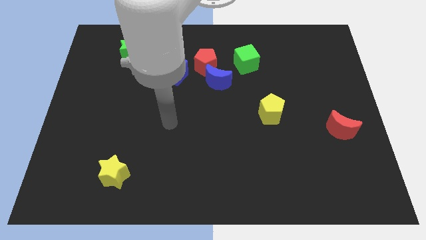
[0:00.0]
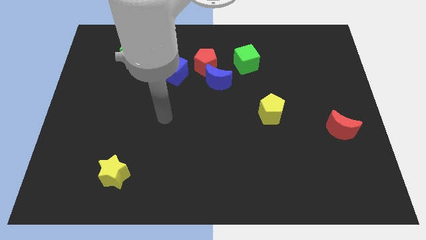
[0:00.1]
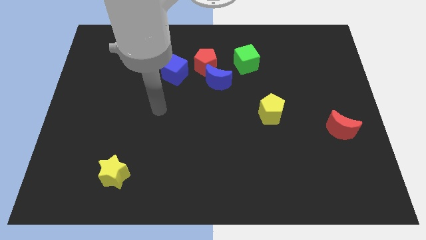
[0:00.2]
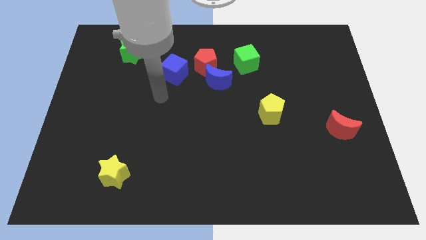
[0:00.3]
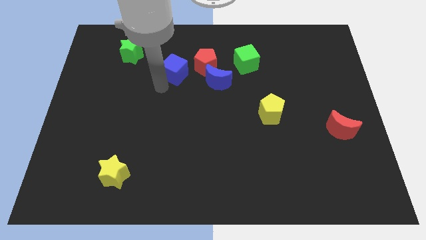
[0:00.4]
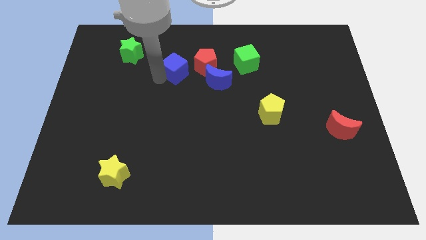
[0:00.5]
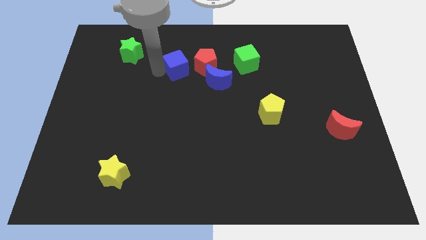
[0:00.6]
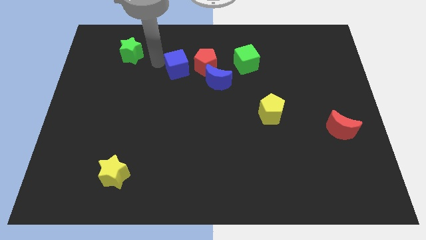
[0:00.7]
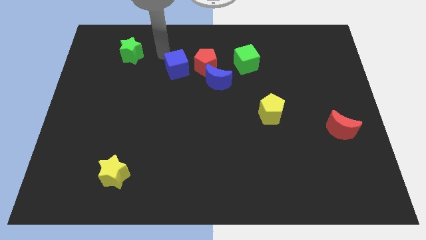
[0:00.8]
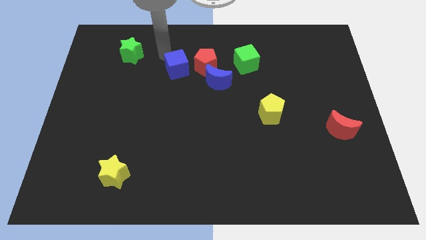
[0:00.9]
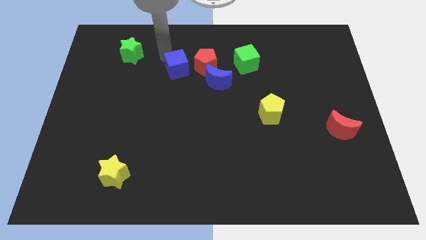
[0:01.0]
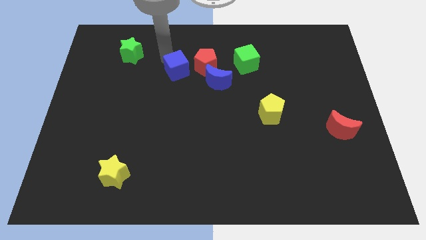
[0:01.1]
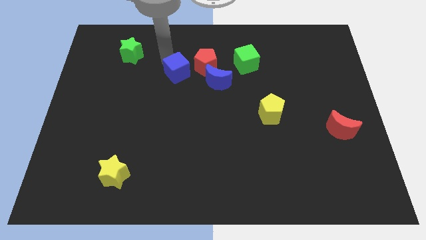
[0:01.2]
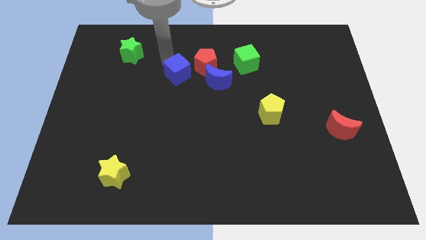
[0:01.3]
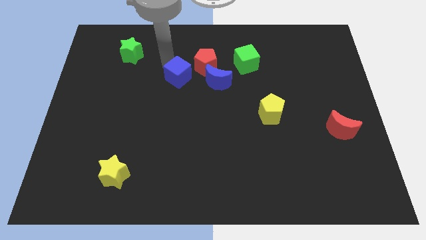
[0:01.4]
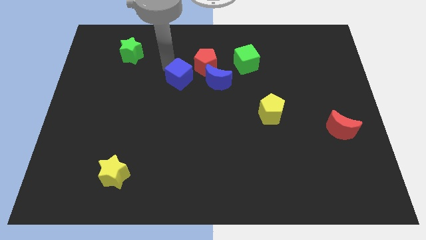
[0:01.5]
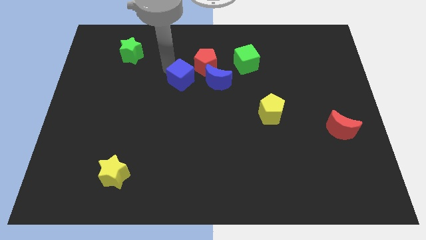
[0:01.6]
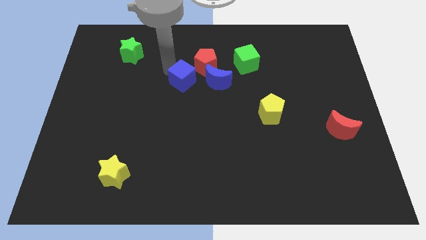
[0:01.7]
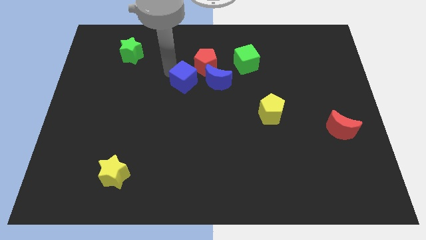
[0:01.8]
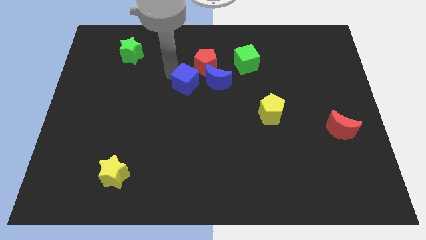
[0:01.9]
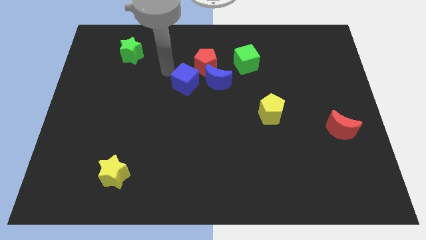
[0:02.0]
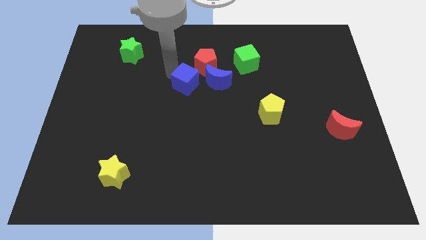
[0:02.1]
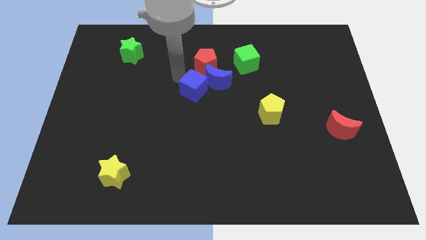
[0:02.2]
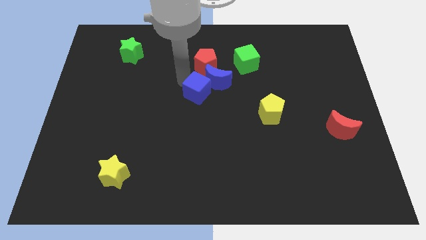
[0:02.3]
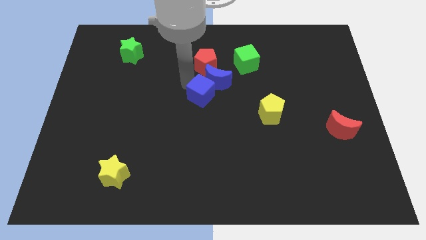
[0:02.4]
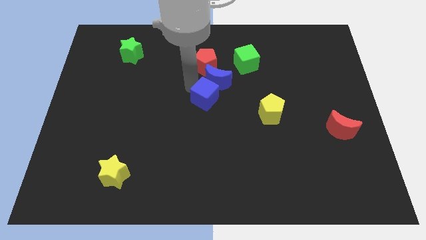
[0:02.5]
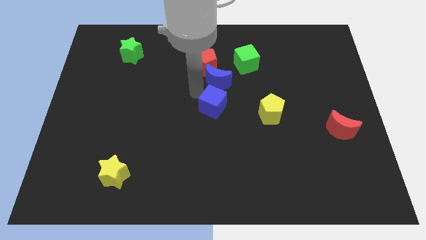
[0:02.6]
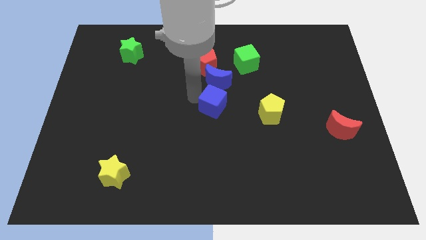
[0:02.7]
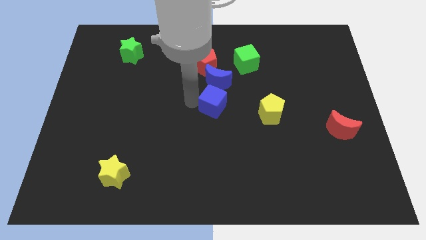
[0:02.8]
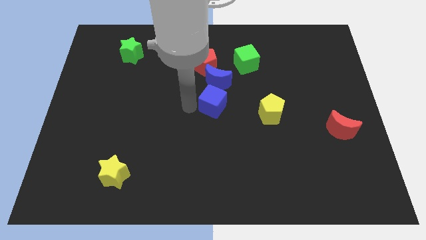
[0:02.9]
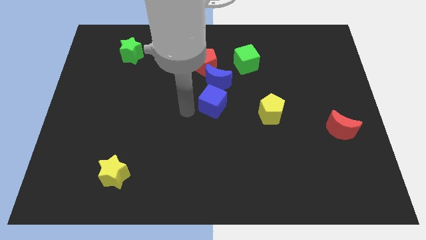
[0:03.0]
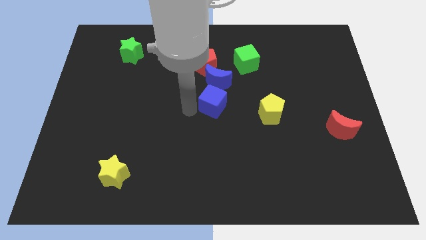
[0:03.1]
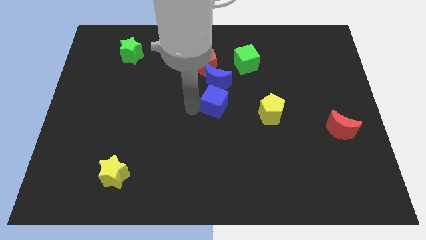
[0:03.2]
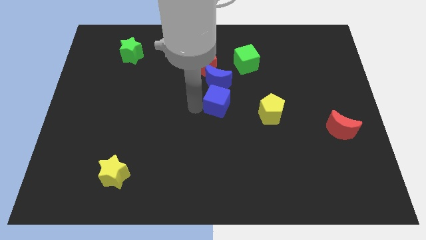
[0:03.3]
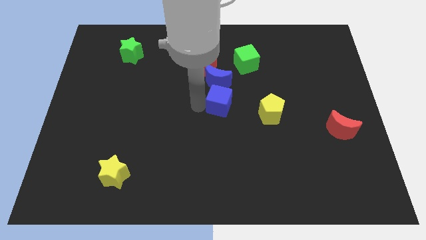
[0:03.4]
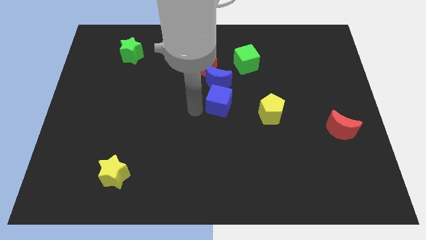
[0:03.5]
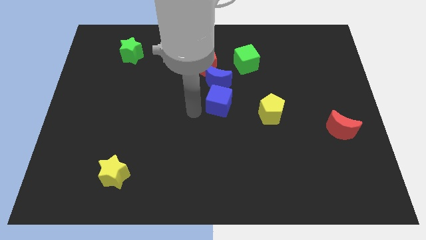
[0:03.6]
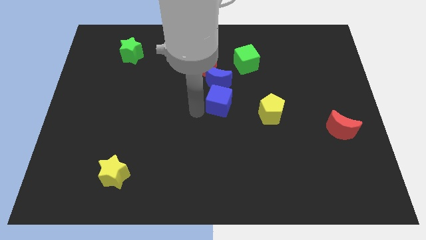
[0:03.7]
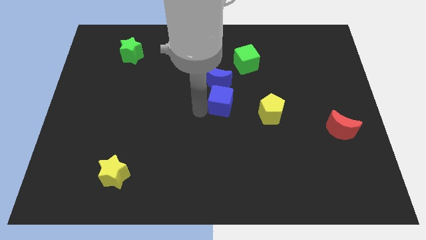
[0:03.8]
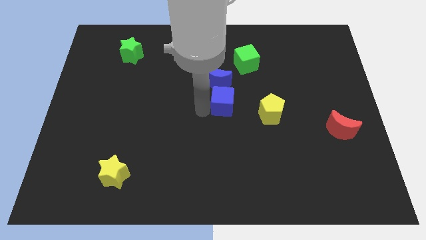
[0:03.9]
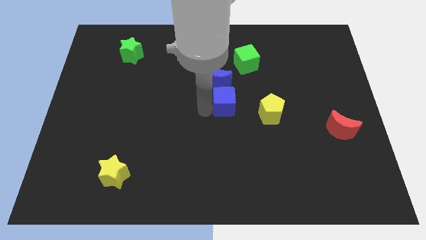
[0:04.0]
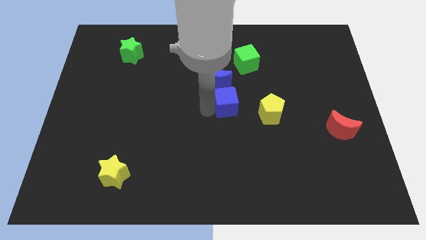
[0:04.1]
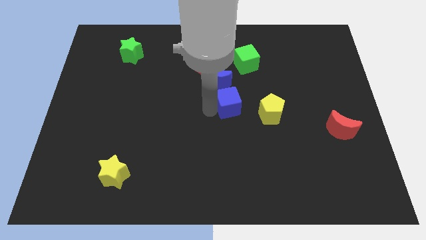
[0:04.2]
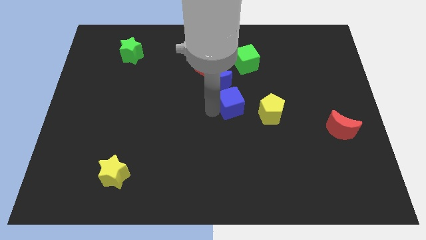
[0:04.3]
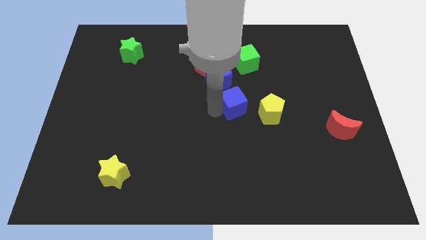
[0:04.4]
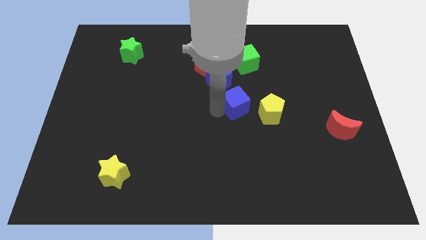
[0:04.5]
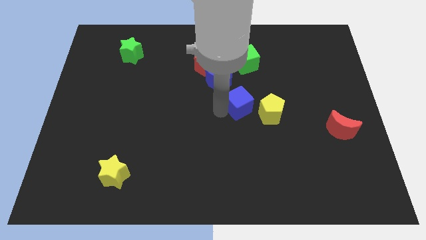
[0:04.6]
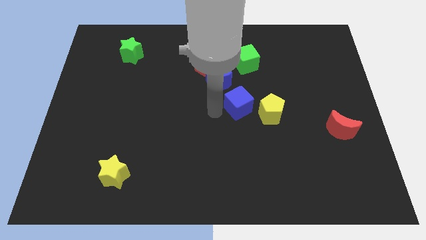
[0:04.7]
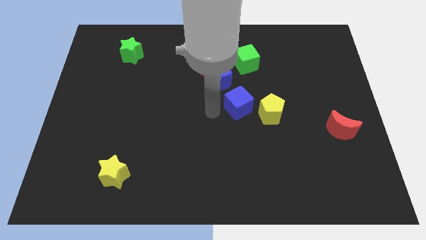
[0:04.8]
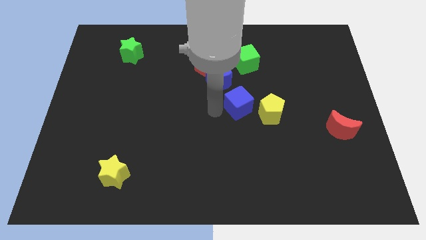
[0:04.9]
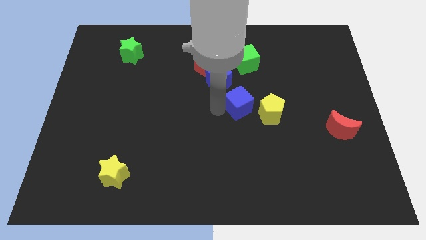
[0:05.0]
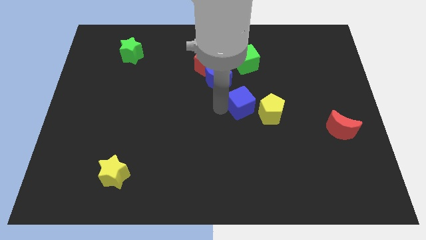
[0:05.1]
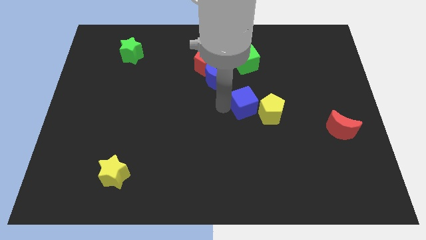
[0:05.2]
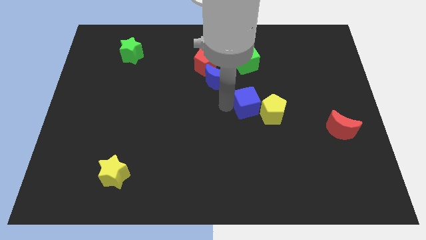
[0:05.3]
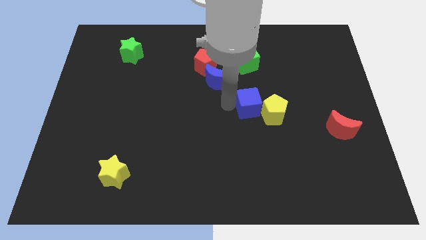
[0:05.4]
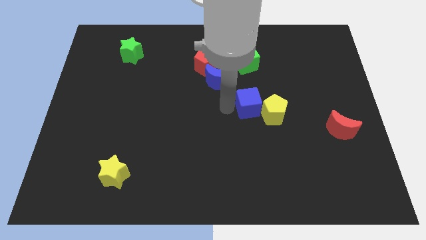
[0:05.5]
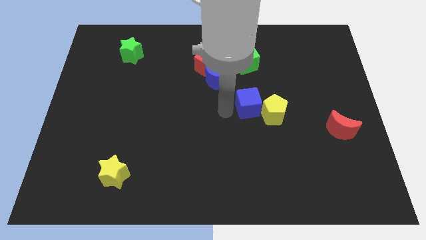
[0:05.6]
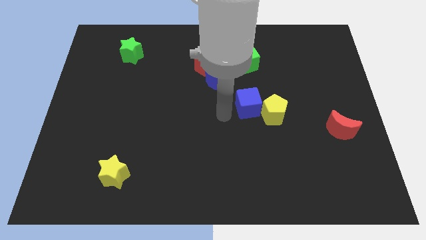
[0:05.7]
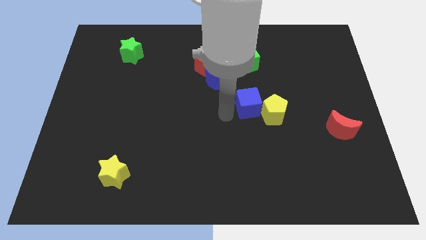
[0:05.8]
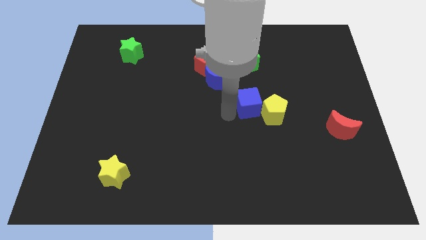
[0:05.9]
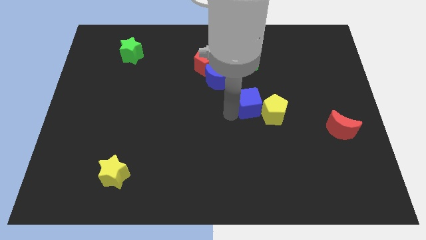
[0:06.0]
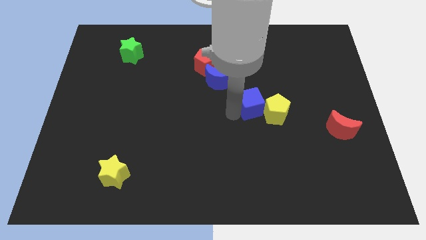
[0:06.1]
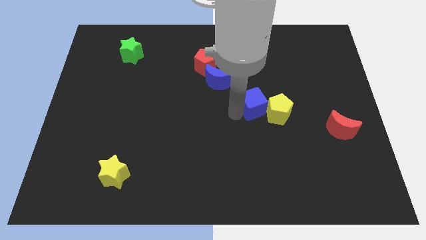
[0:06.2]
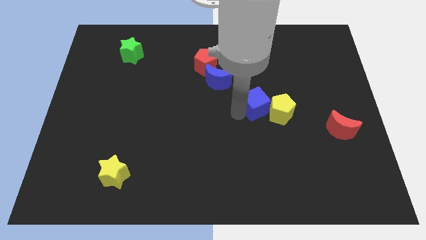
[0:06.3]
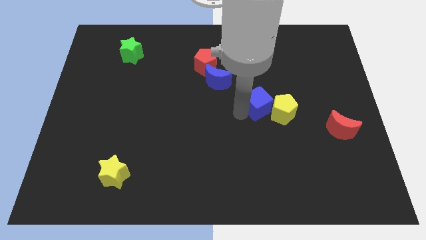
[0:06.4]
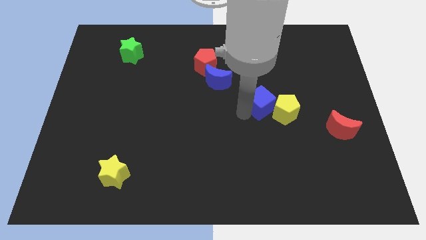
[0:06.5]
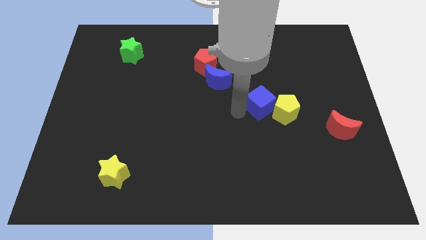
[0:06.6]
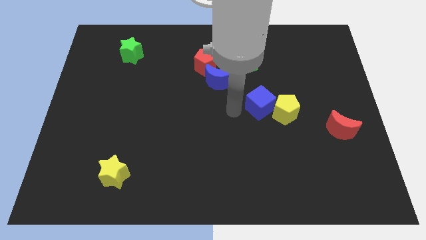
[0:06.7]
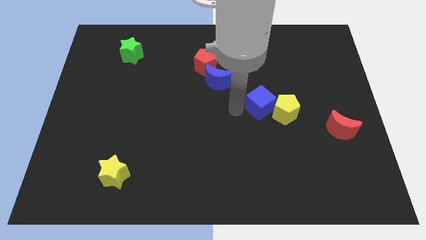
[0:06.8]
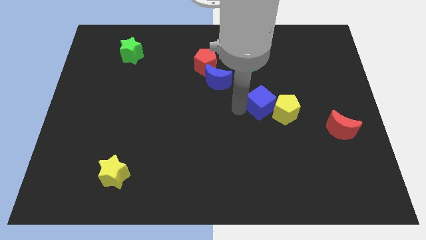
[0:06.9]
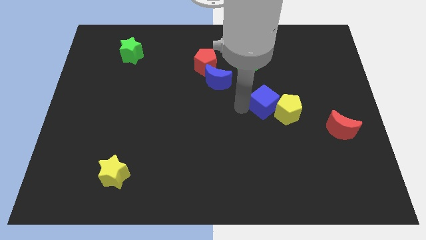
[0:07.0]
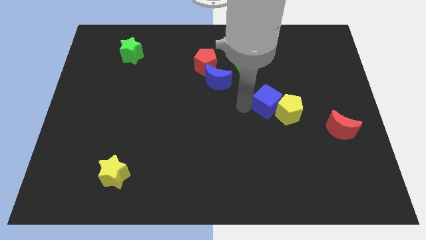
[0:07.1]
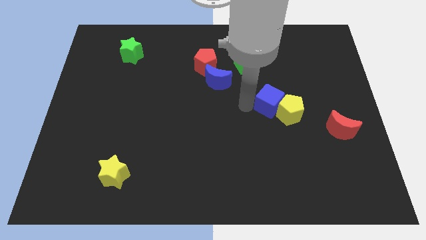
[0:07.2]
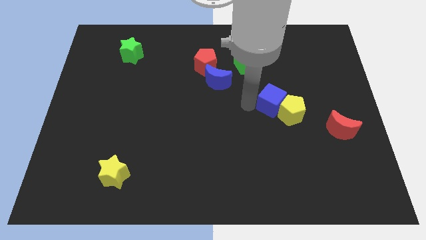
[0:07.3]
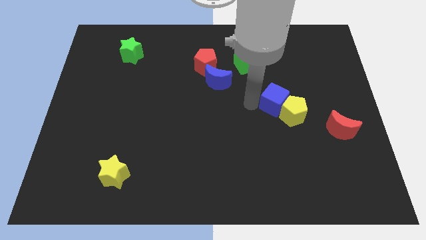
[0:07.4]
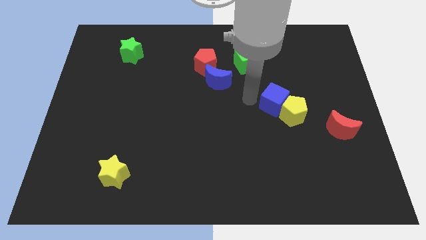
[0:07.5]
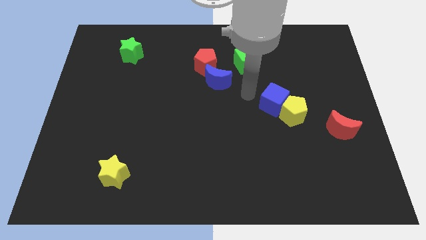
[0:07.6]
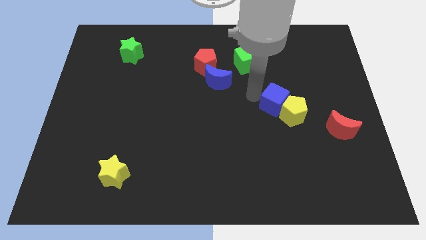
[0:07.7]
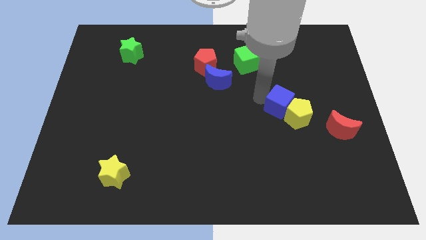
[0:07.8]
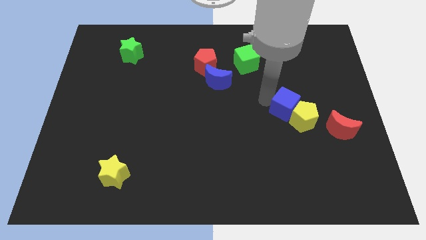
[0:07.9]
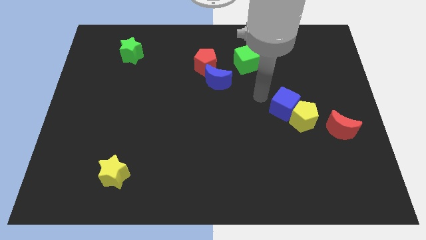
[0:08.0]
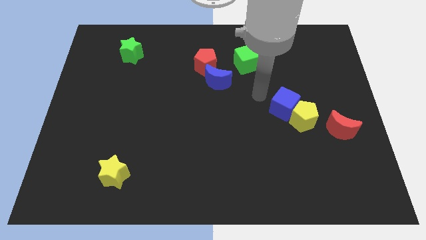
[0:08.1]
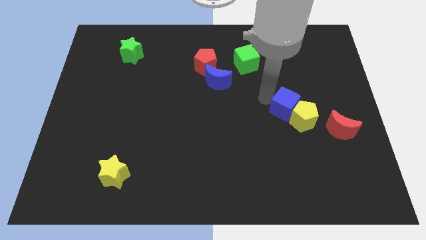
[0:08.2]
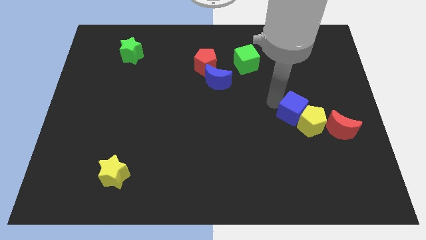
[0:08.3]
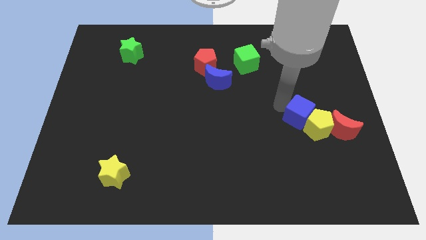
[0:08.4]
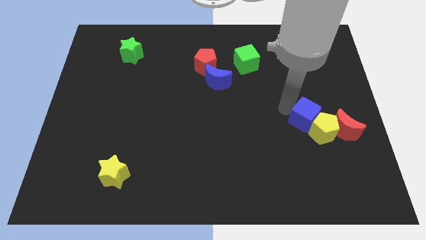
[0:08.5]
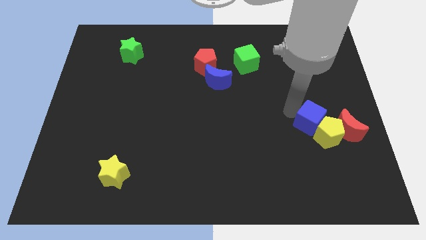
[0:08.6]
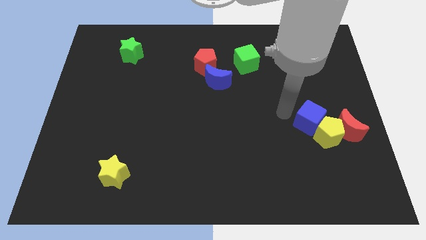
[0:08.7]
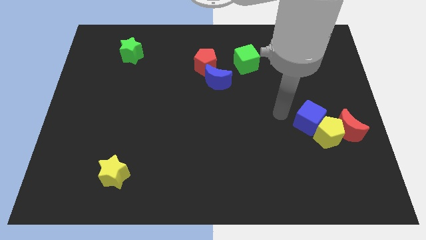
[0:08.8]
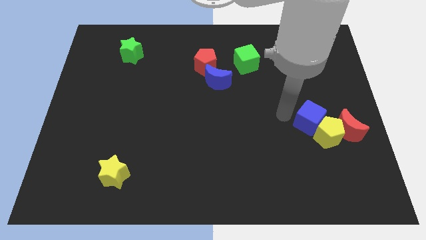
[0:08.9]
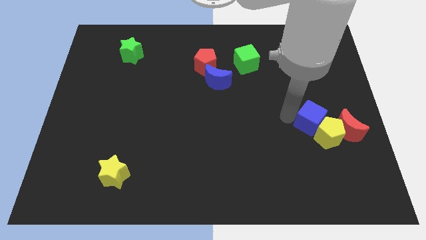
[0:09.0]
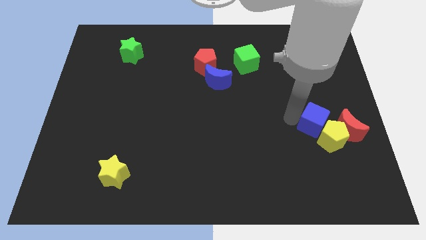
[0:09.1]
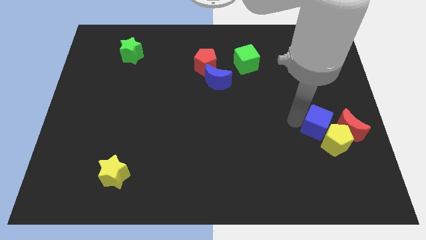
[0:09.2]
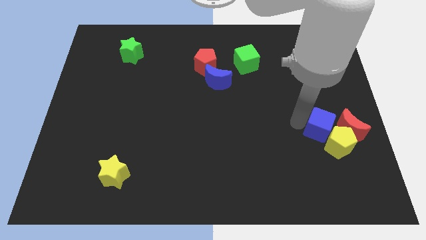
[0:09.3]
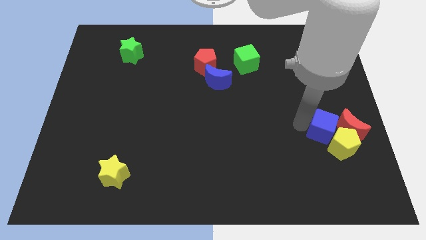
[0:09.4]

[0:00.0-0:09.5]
slide the blue cube towards the red moon
